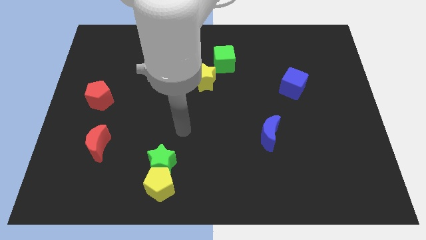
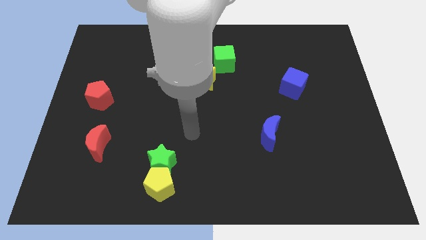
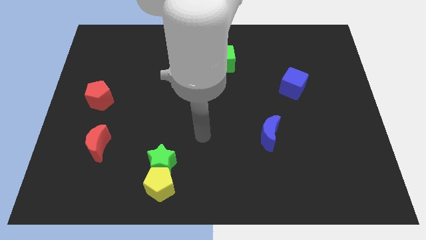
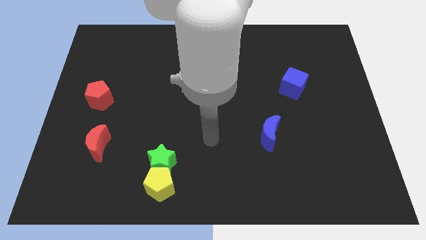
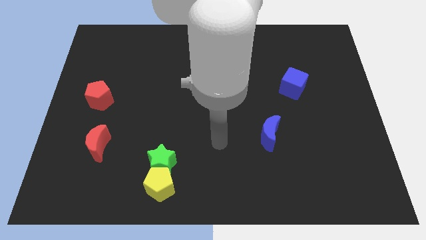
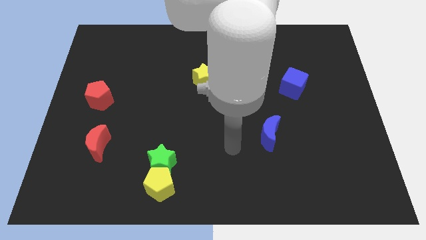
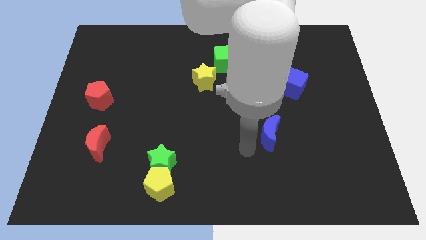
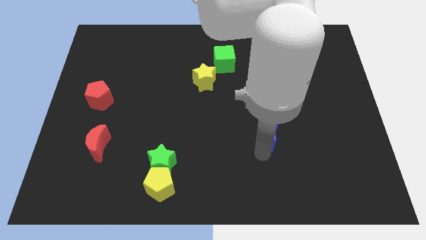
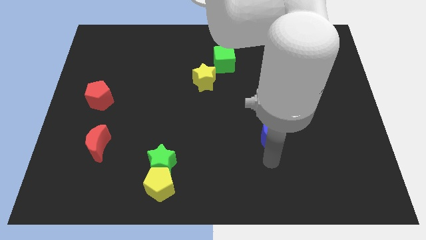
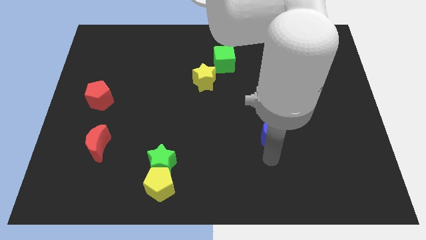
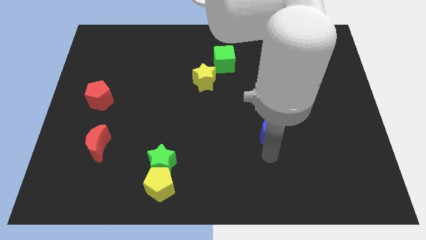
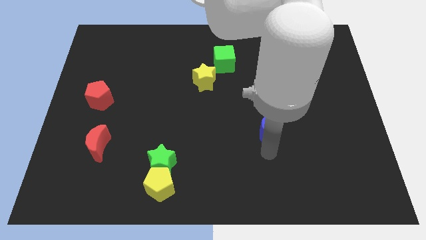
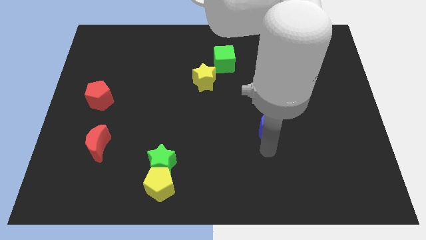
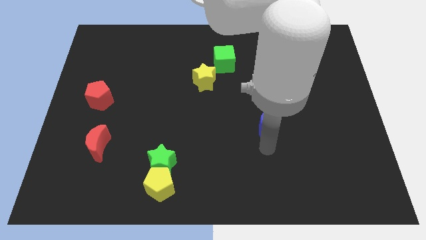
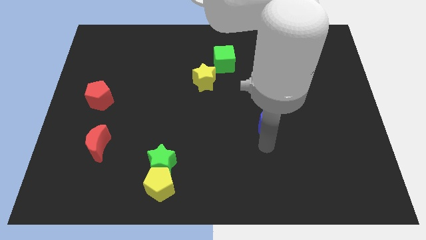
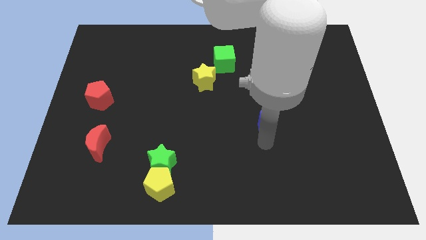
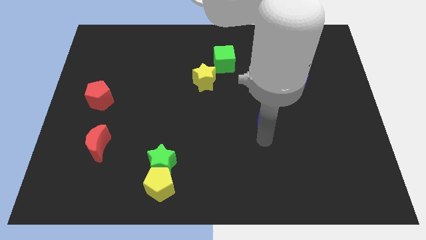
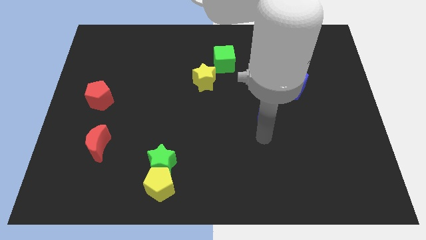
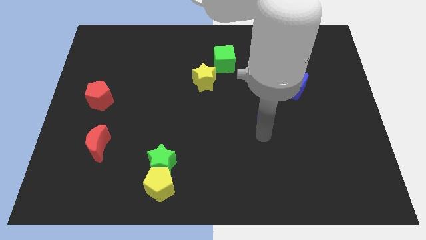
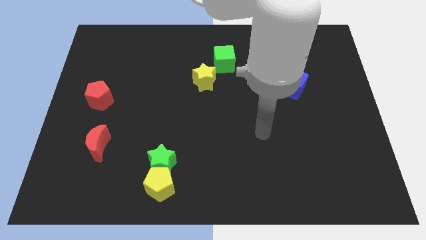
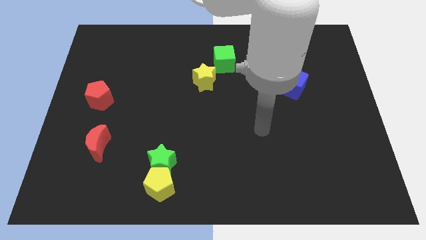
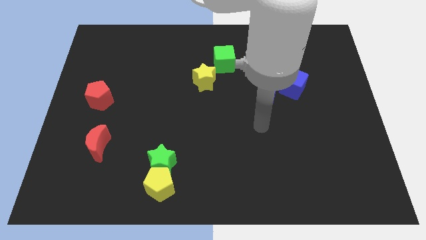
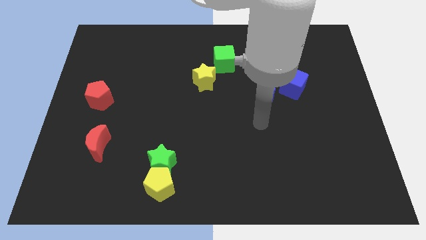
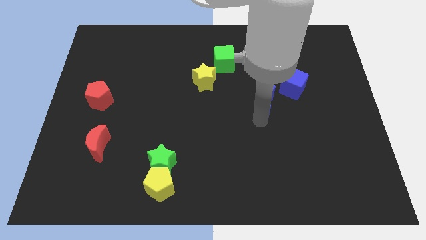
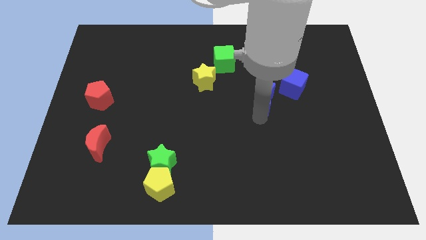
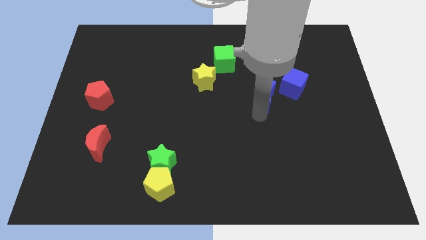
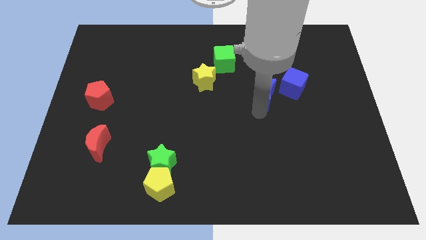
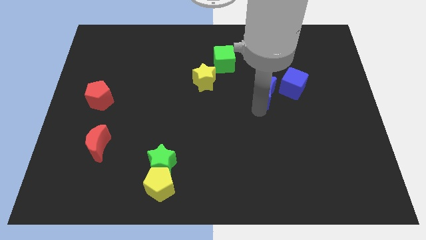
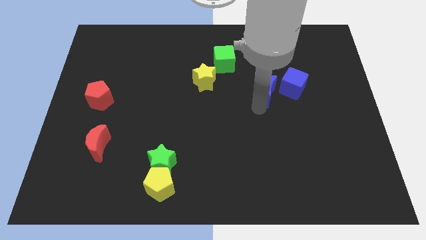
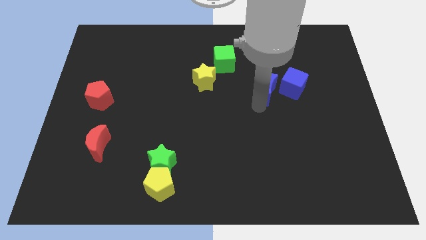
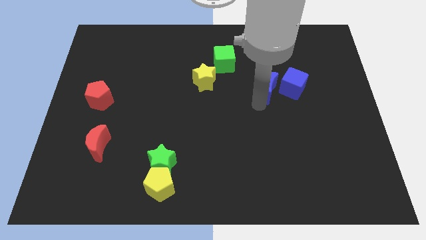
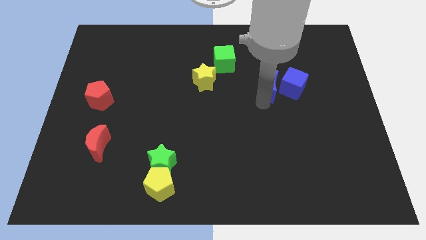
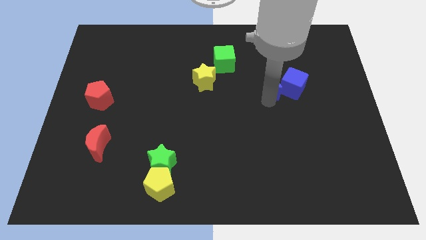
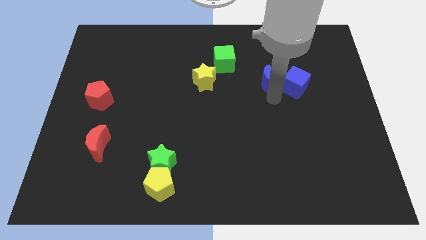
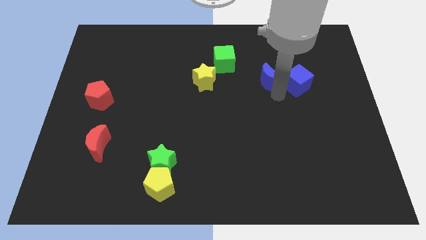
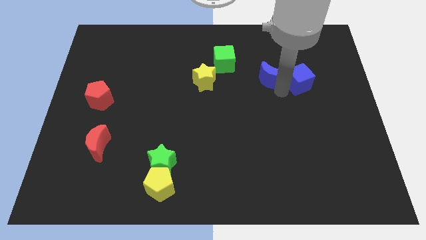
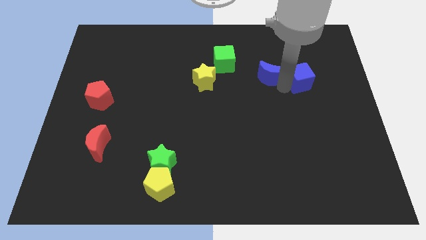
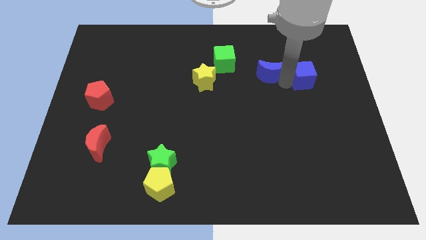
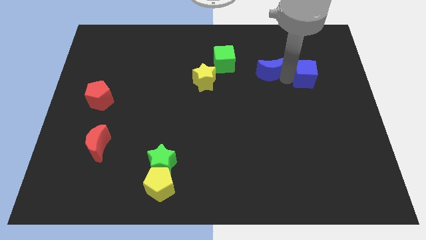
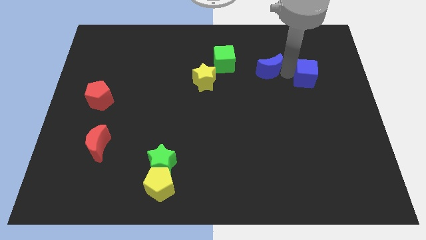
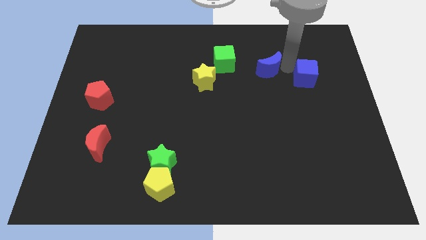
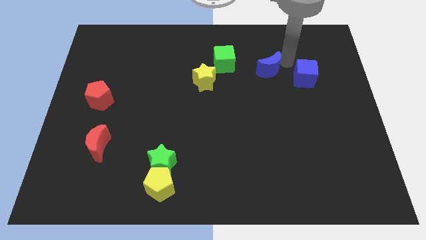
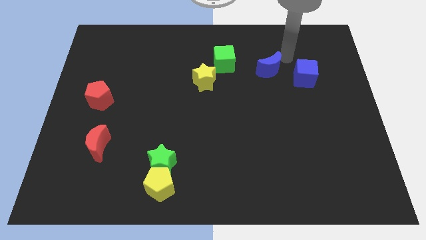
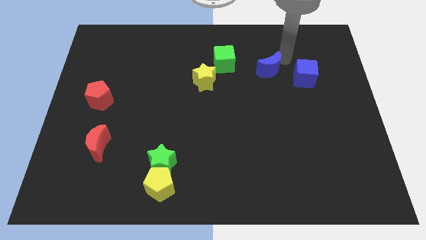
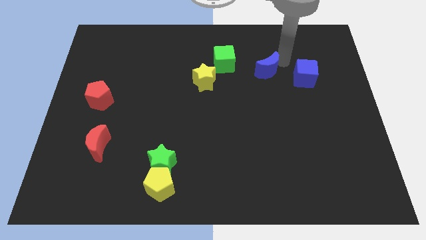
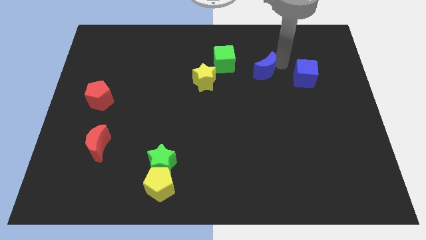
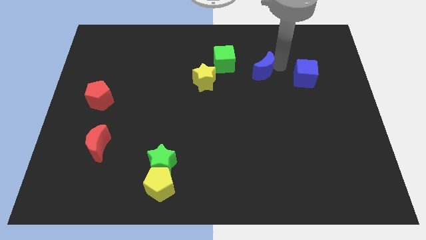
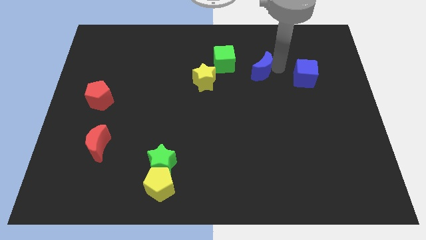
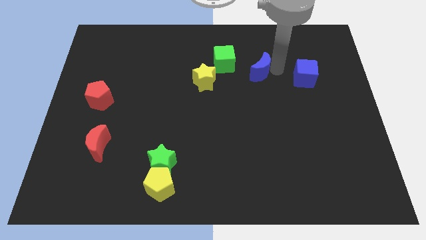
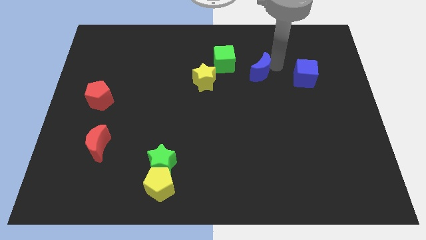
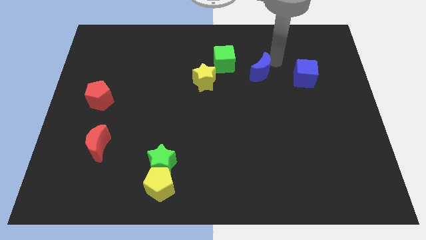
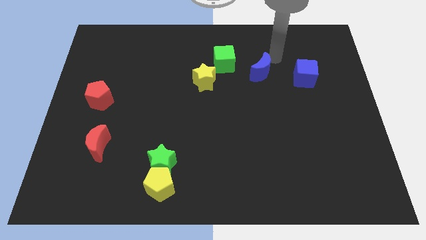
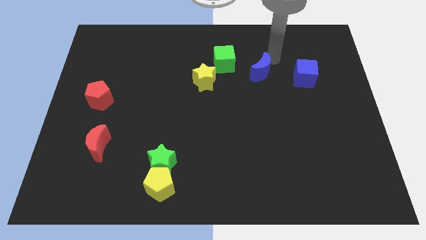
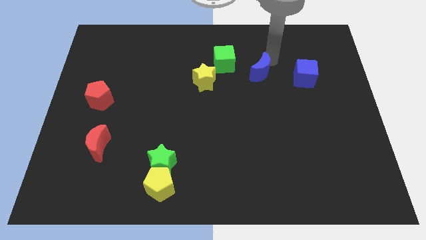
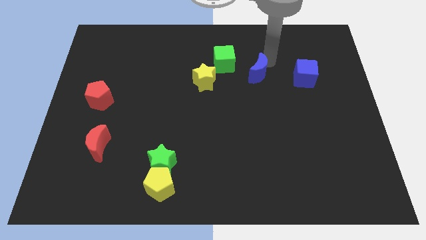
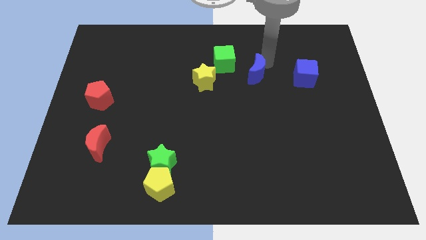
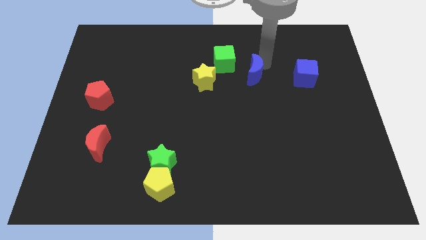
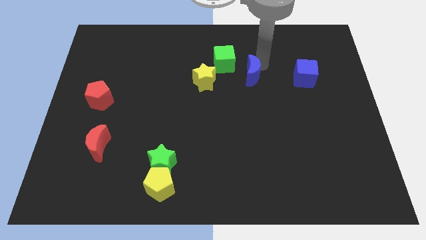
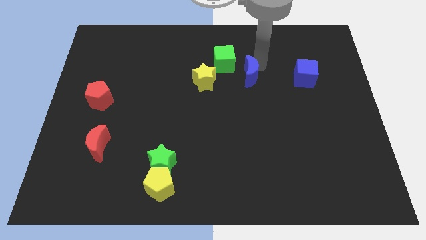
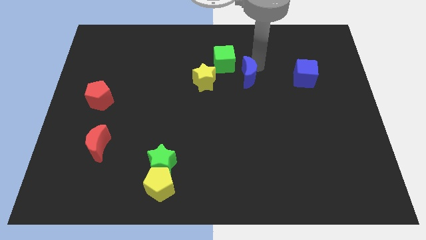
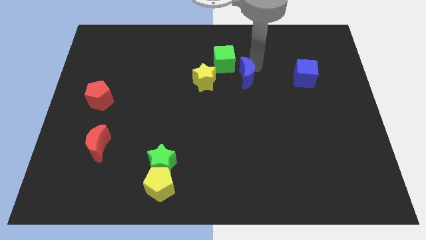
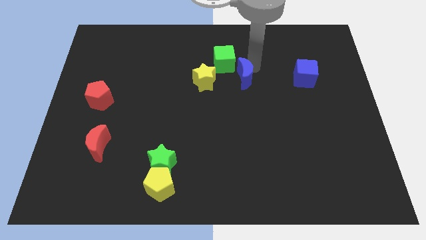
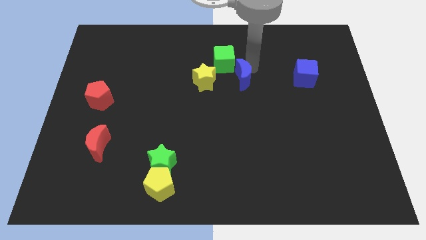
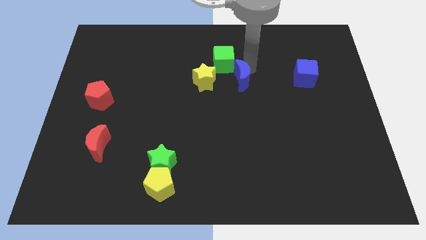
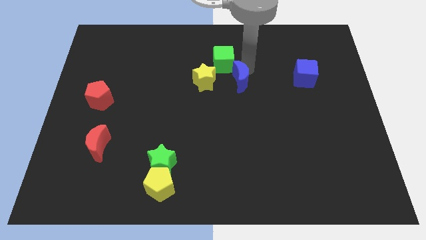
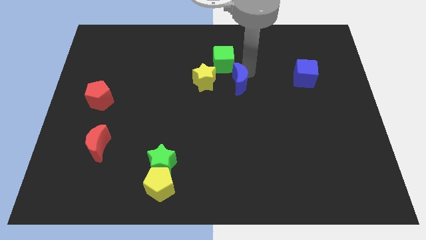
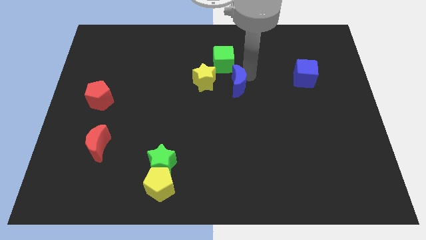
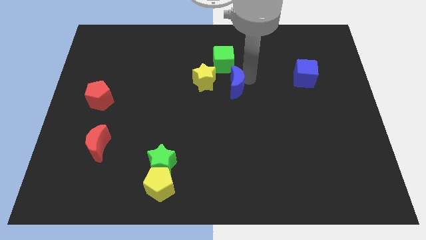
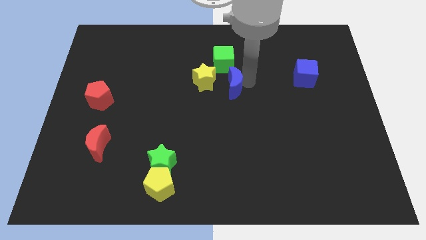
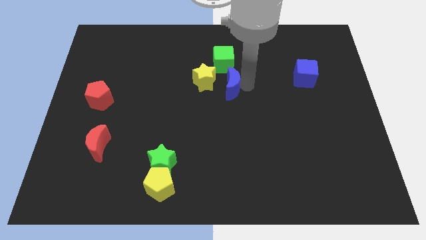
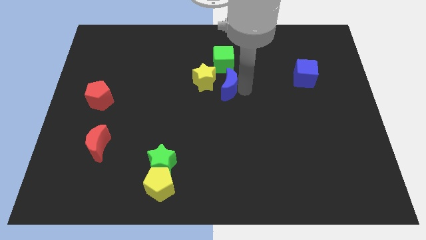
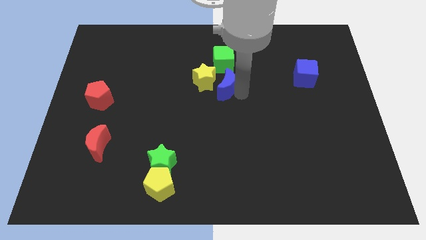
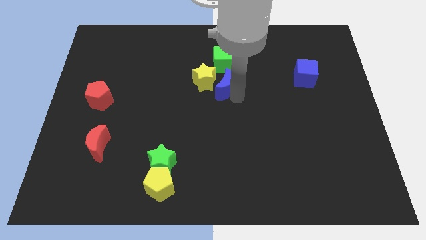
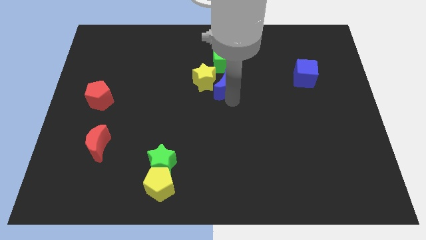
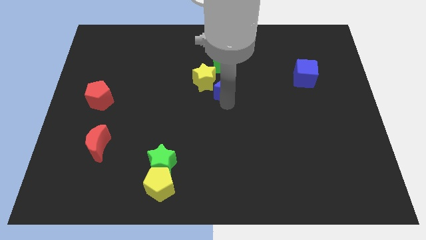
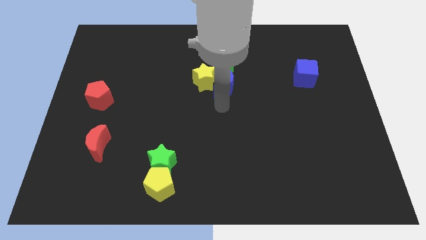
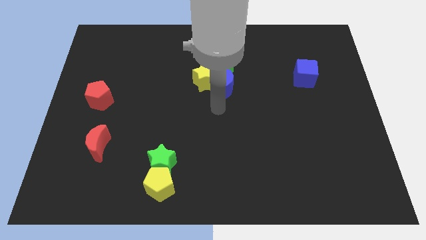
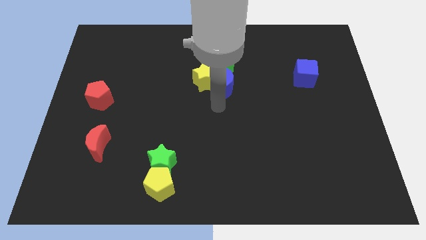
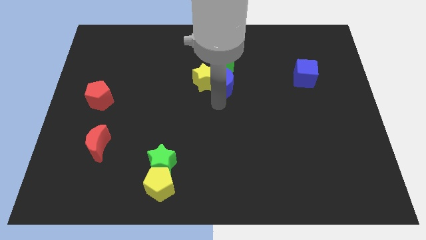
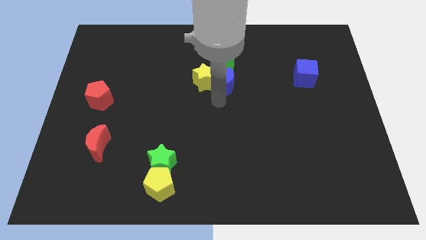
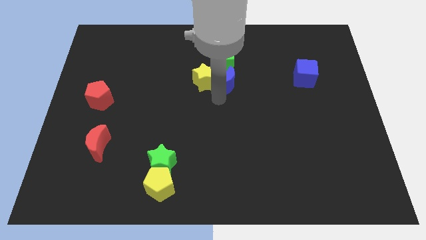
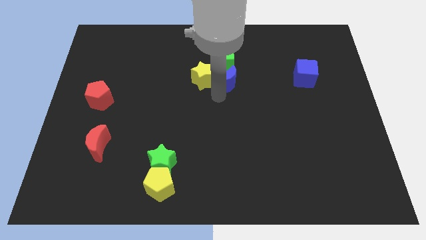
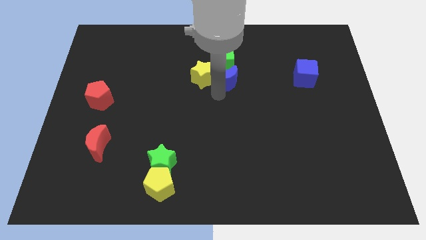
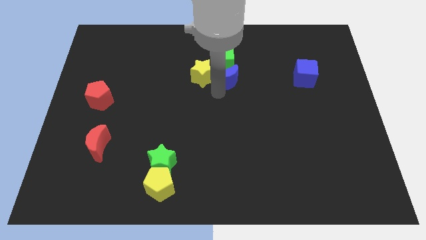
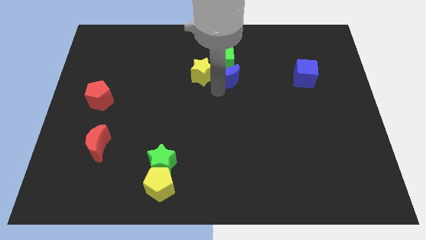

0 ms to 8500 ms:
put the blue moon next to the green cube
